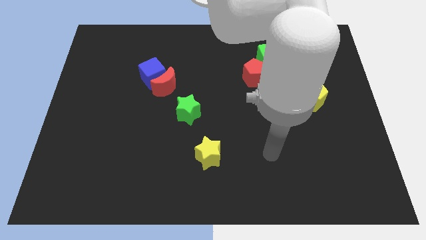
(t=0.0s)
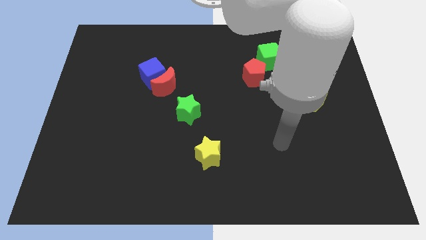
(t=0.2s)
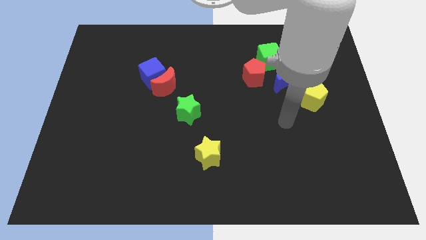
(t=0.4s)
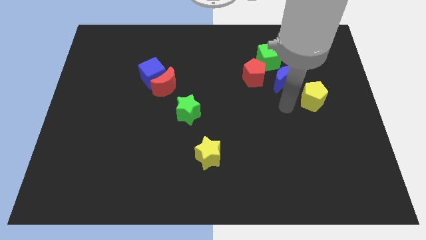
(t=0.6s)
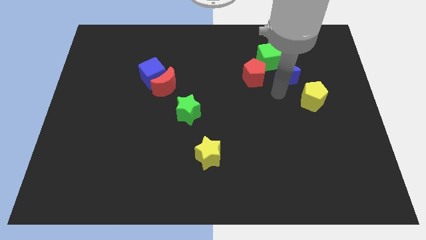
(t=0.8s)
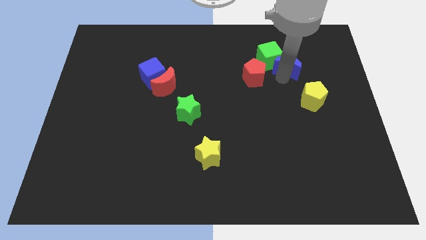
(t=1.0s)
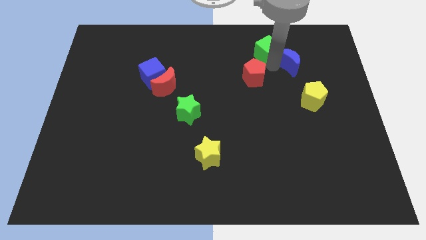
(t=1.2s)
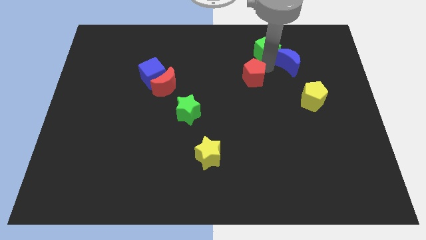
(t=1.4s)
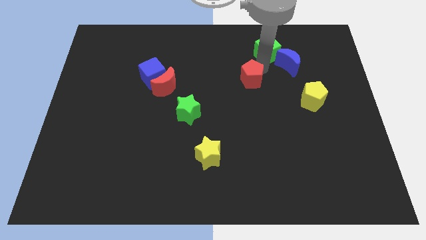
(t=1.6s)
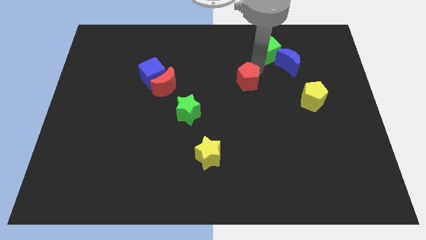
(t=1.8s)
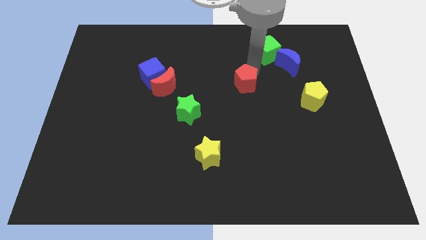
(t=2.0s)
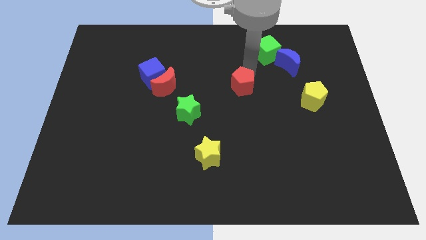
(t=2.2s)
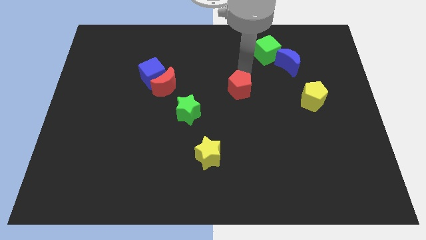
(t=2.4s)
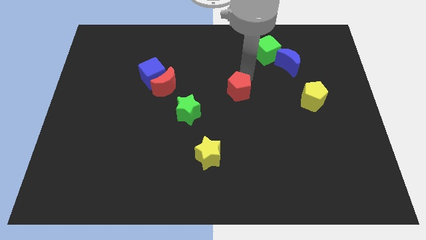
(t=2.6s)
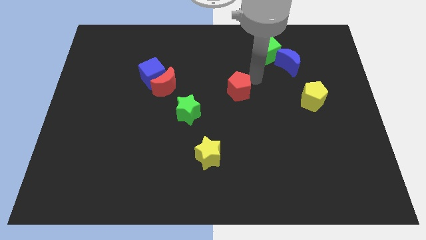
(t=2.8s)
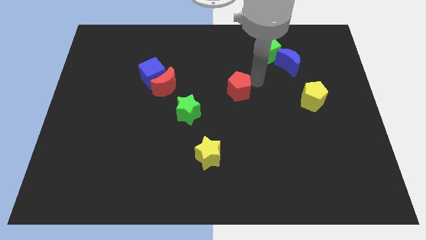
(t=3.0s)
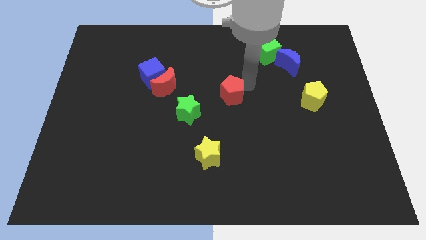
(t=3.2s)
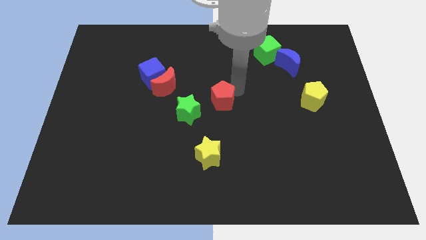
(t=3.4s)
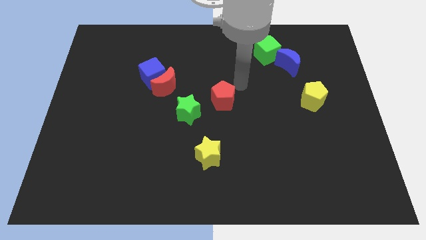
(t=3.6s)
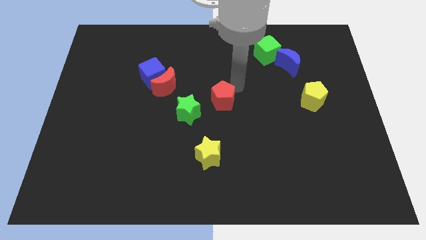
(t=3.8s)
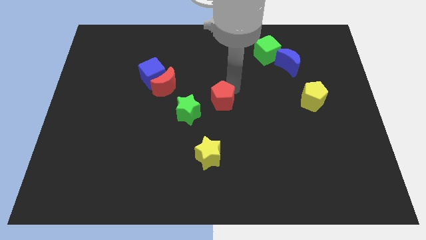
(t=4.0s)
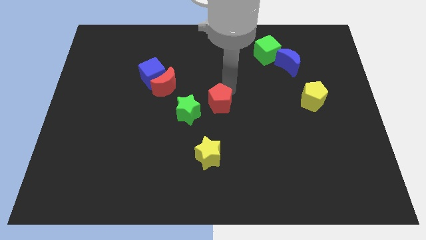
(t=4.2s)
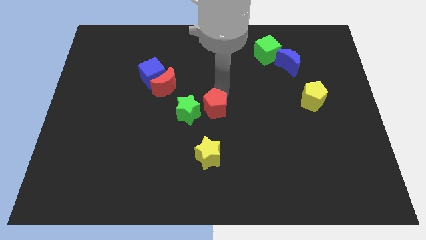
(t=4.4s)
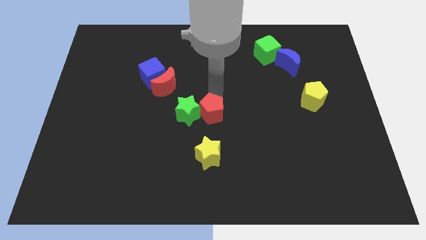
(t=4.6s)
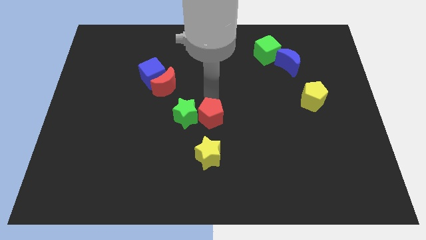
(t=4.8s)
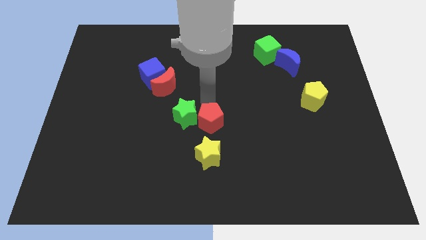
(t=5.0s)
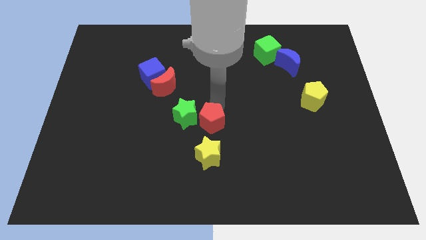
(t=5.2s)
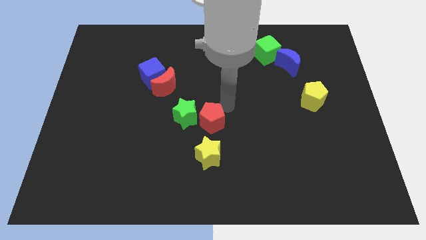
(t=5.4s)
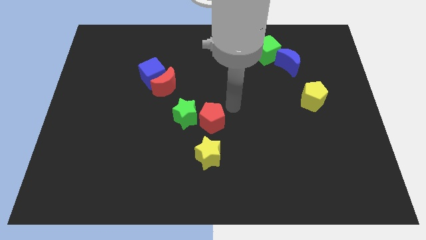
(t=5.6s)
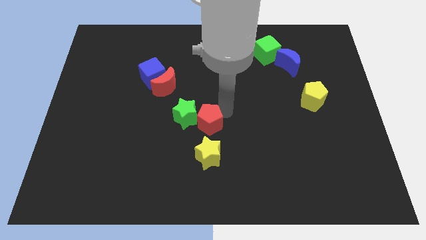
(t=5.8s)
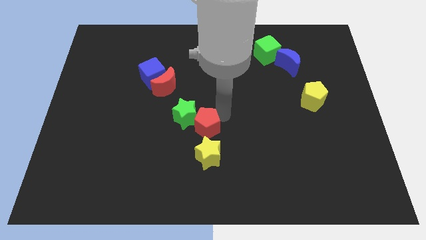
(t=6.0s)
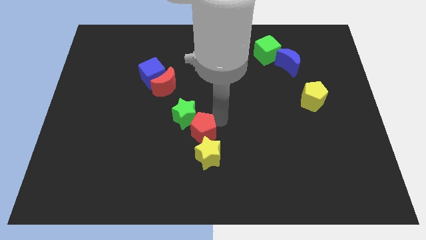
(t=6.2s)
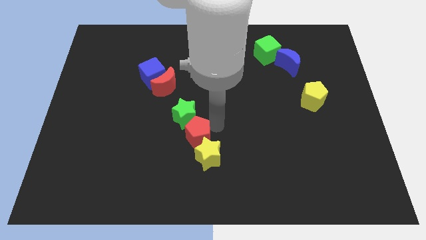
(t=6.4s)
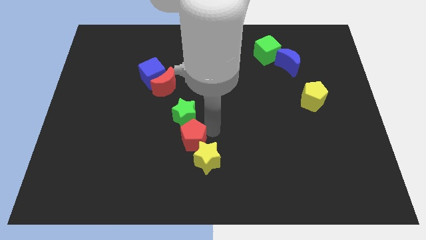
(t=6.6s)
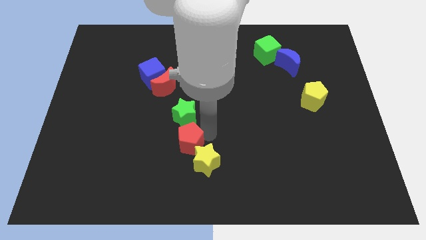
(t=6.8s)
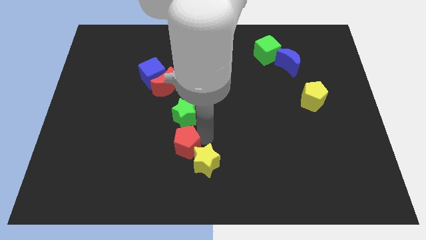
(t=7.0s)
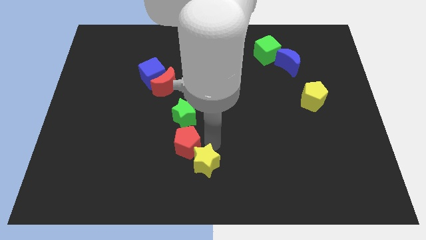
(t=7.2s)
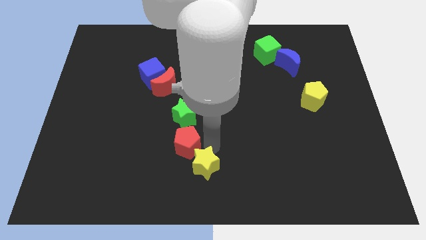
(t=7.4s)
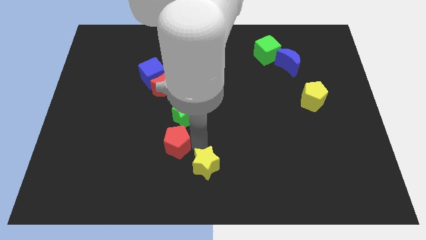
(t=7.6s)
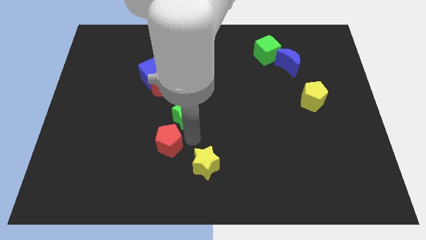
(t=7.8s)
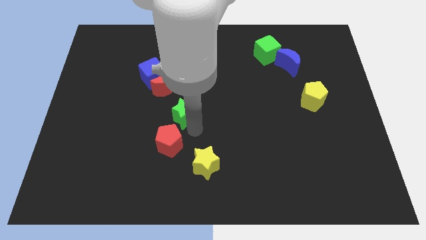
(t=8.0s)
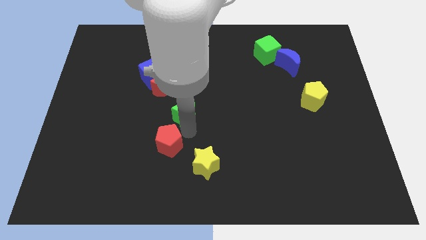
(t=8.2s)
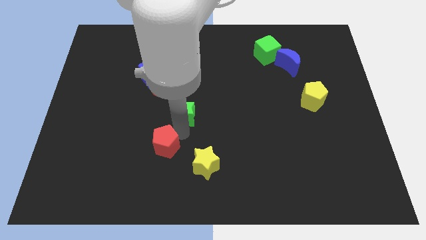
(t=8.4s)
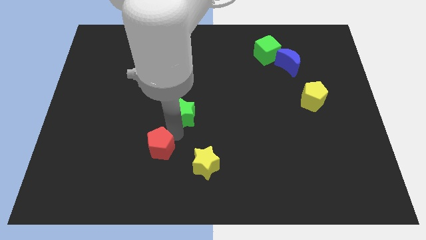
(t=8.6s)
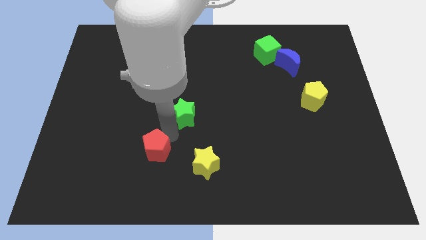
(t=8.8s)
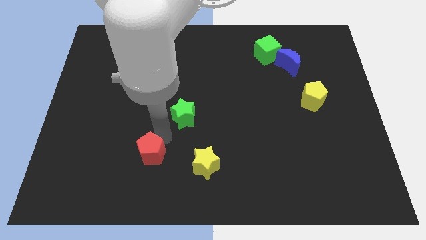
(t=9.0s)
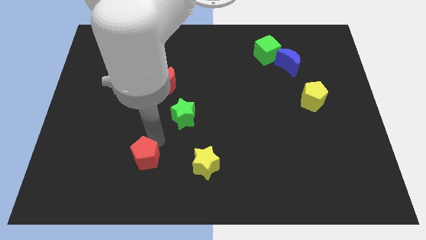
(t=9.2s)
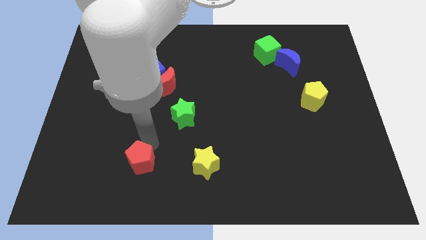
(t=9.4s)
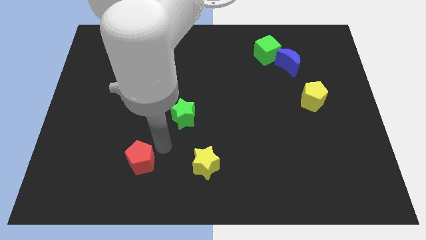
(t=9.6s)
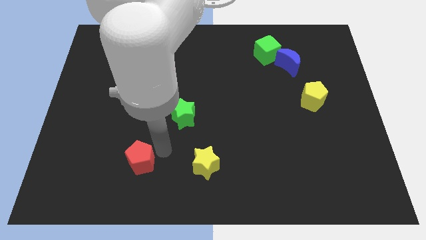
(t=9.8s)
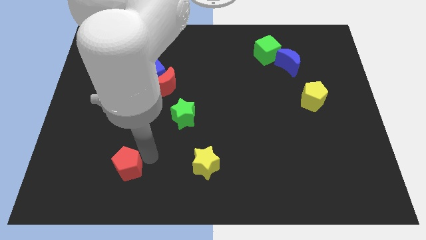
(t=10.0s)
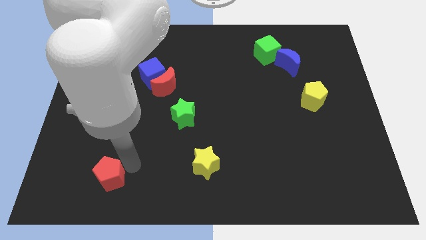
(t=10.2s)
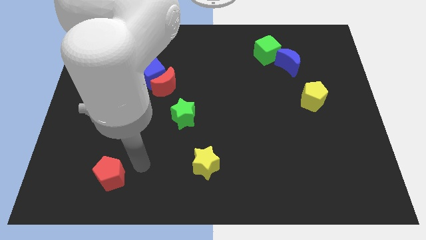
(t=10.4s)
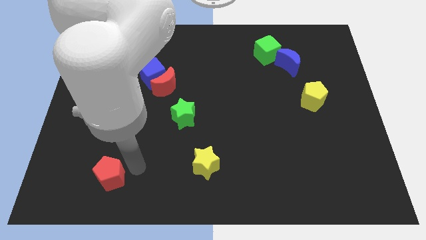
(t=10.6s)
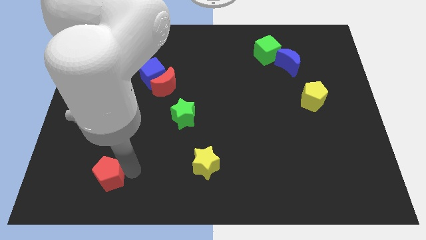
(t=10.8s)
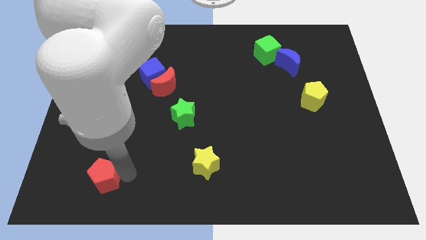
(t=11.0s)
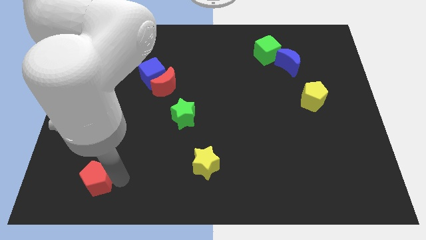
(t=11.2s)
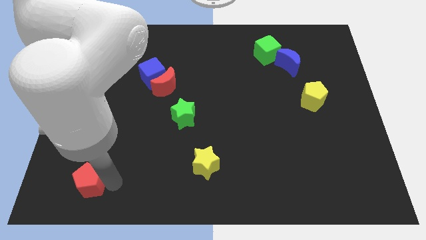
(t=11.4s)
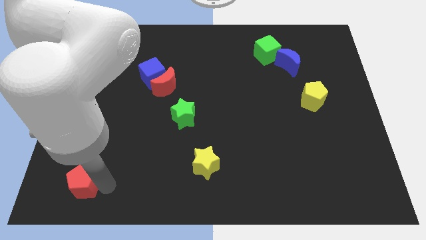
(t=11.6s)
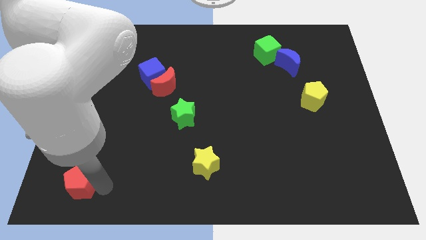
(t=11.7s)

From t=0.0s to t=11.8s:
move the red pentagon to the bottom left corner
